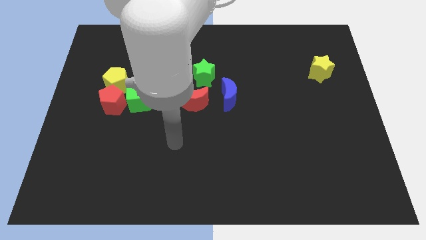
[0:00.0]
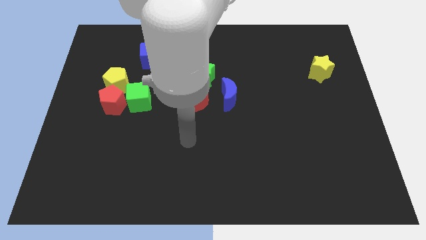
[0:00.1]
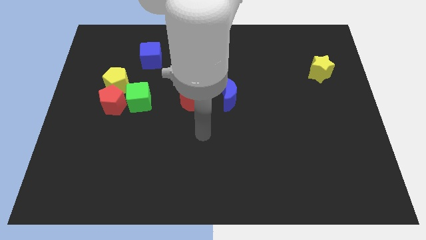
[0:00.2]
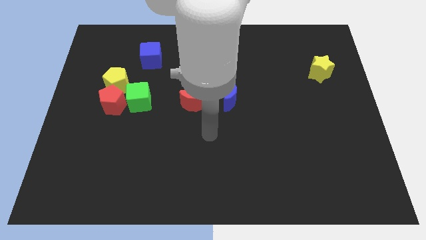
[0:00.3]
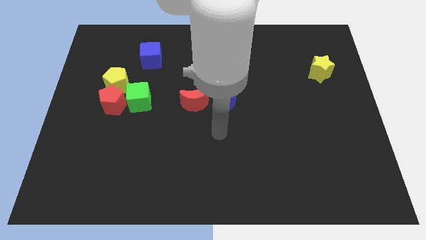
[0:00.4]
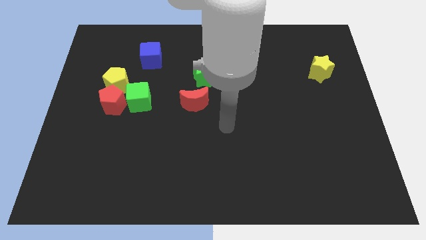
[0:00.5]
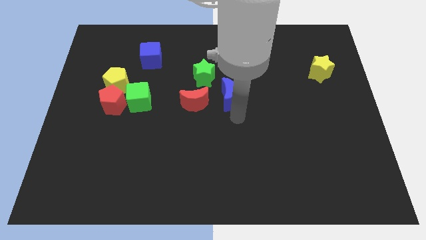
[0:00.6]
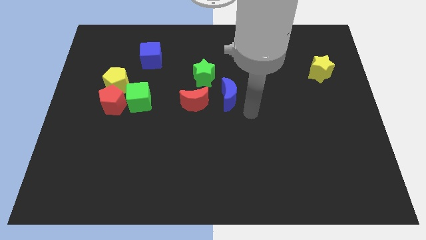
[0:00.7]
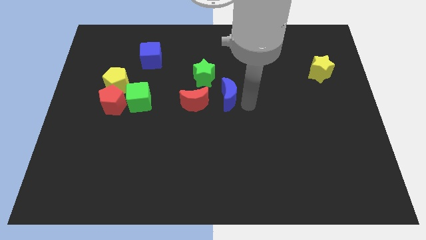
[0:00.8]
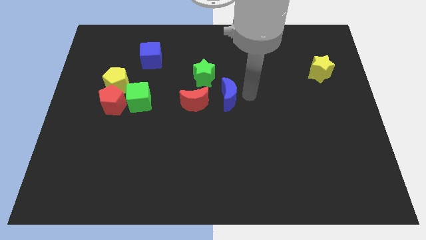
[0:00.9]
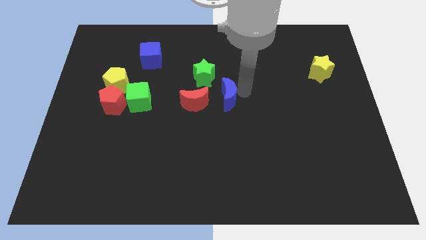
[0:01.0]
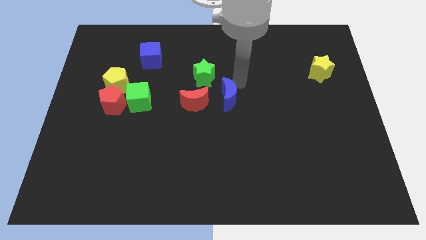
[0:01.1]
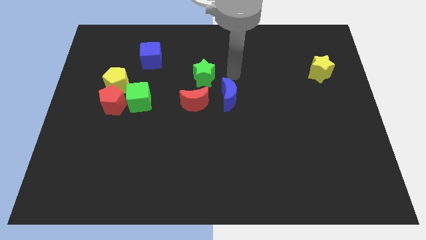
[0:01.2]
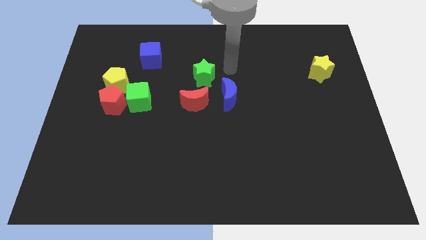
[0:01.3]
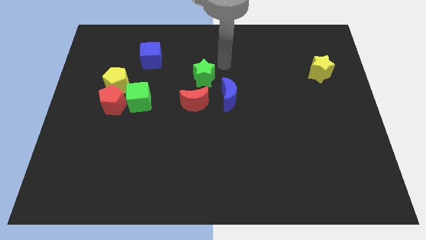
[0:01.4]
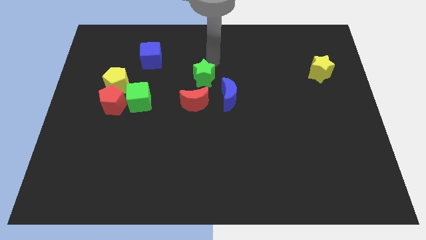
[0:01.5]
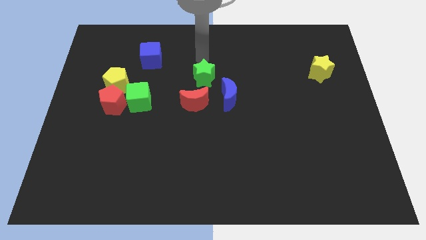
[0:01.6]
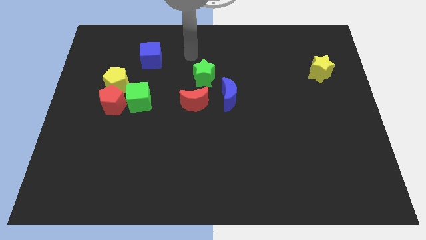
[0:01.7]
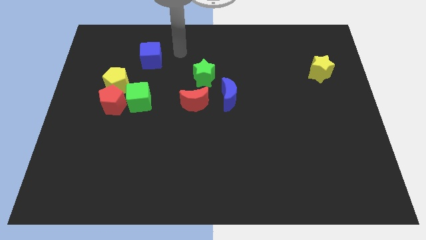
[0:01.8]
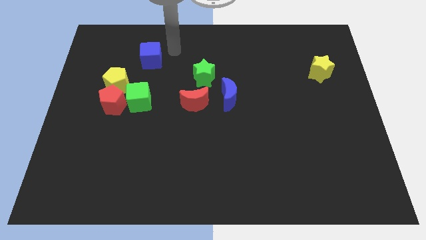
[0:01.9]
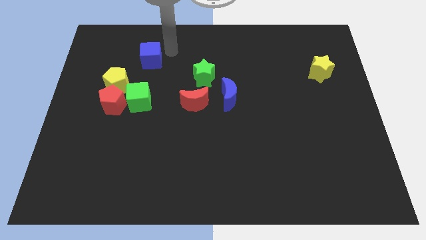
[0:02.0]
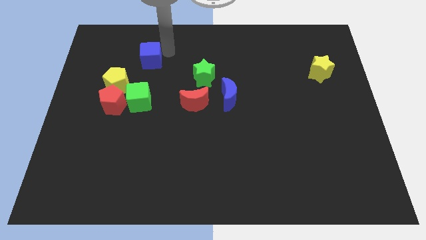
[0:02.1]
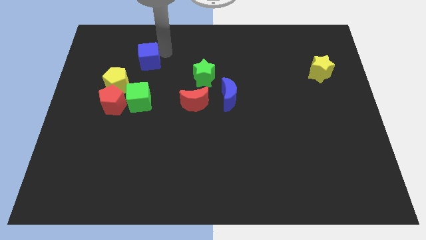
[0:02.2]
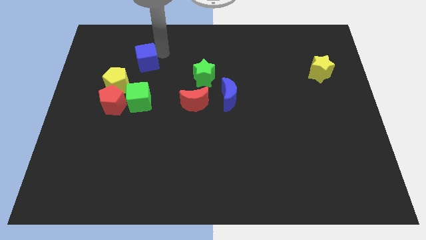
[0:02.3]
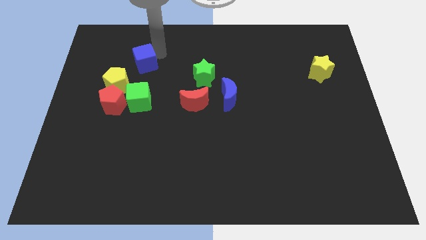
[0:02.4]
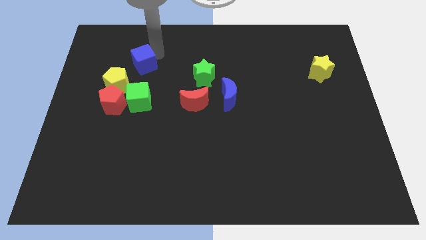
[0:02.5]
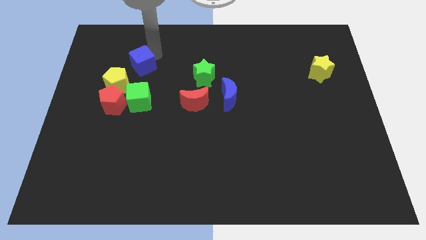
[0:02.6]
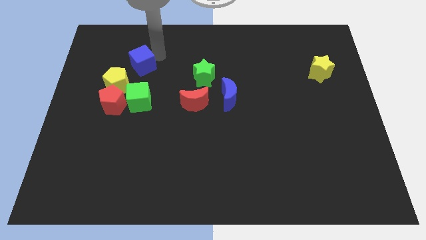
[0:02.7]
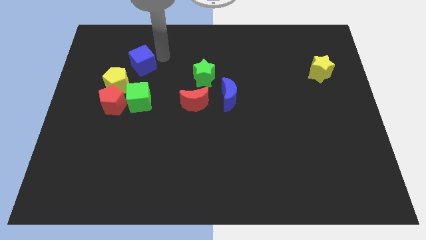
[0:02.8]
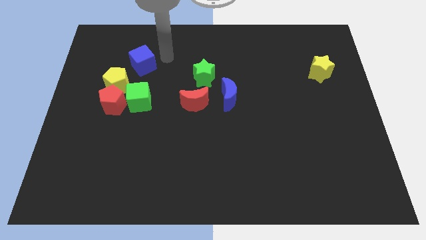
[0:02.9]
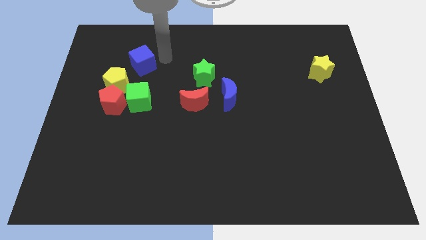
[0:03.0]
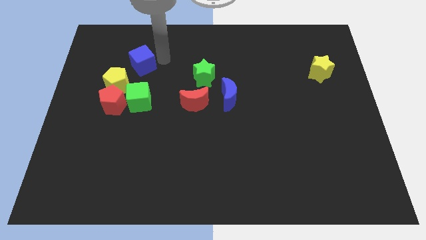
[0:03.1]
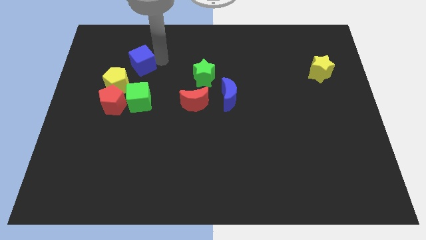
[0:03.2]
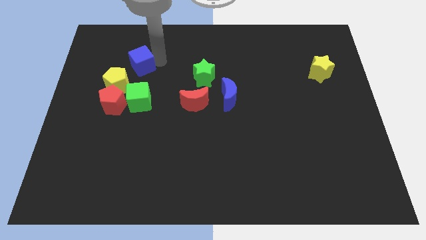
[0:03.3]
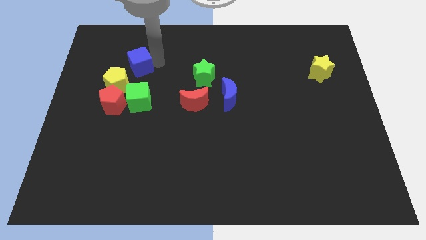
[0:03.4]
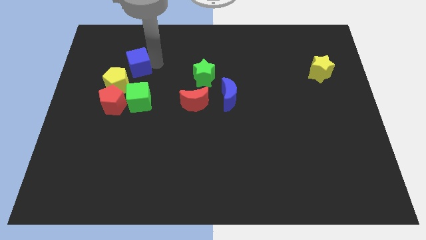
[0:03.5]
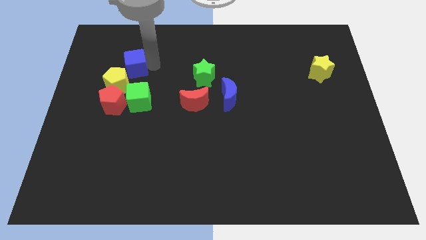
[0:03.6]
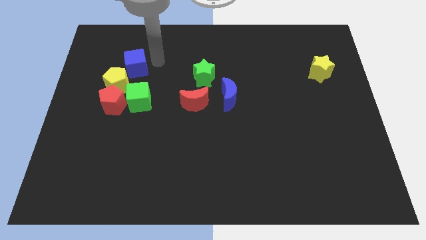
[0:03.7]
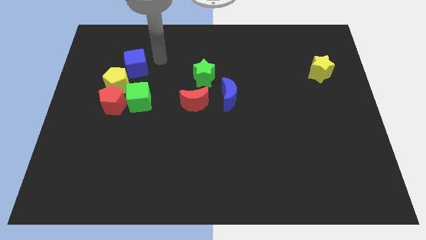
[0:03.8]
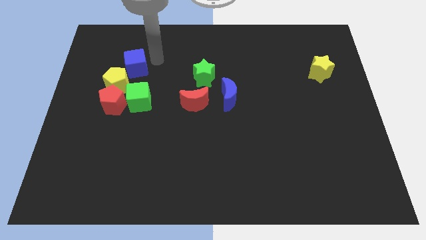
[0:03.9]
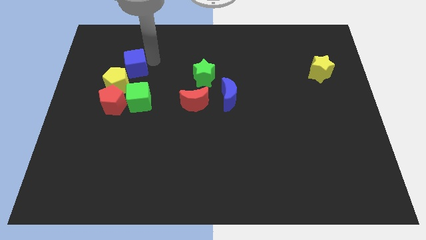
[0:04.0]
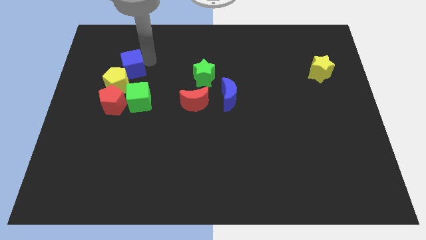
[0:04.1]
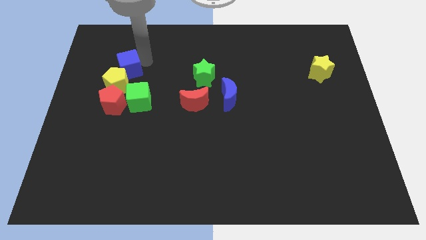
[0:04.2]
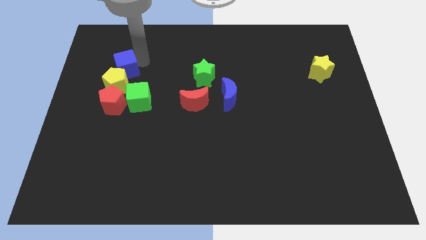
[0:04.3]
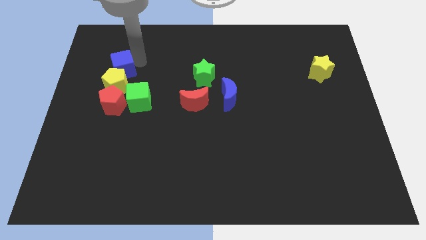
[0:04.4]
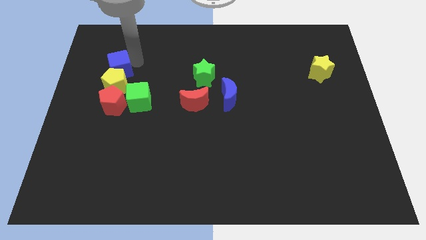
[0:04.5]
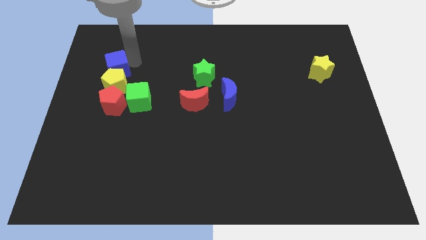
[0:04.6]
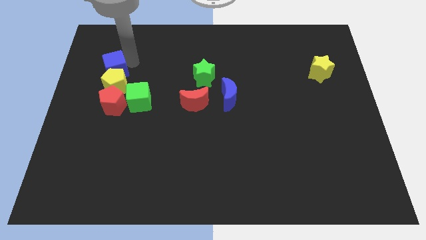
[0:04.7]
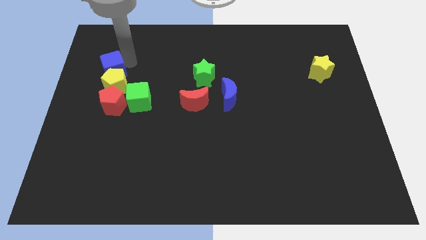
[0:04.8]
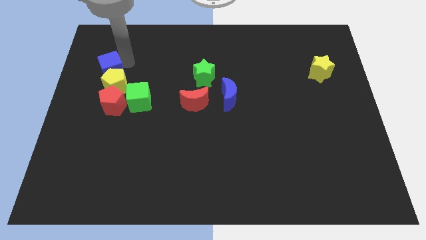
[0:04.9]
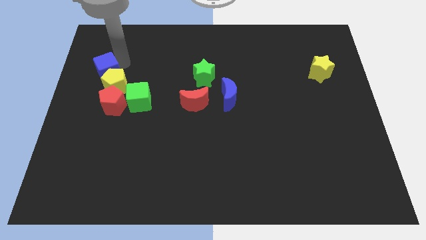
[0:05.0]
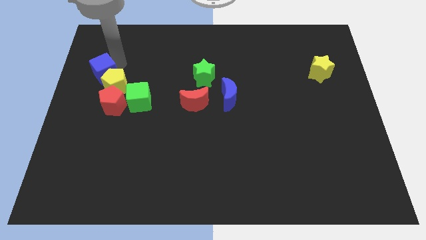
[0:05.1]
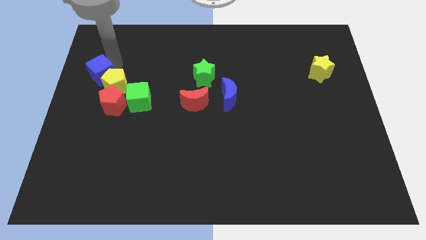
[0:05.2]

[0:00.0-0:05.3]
put the blue cube to the left side

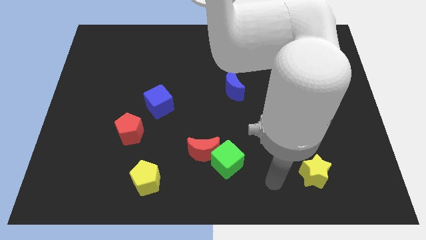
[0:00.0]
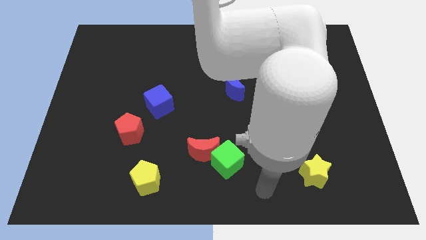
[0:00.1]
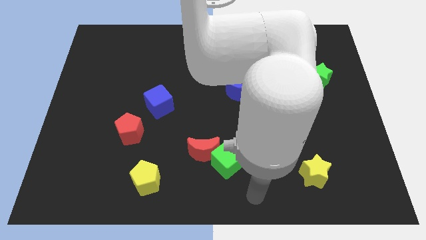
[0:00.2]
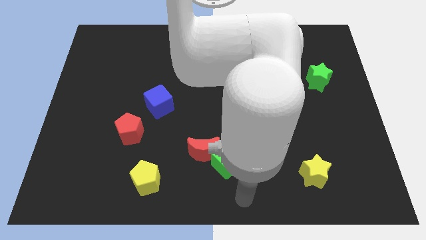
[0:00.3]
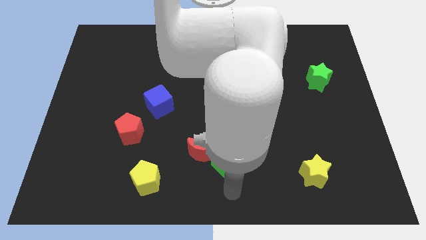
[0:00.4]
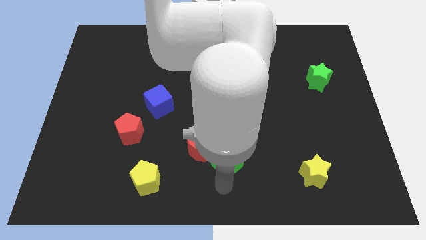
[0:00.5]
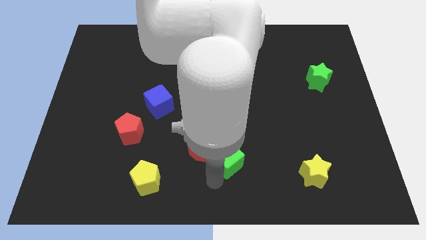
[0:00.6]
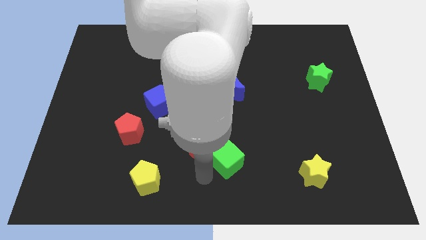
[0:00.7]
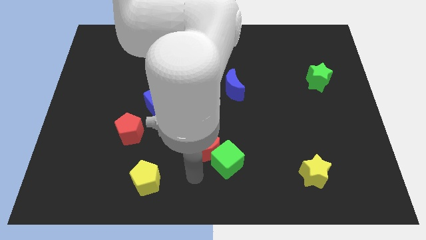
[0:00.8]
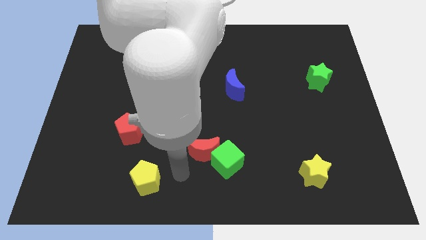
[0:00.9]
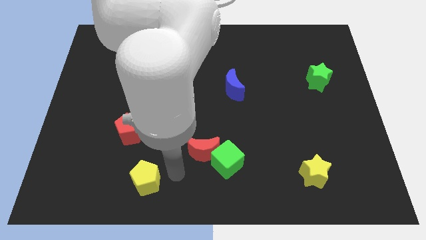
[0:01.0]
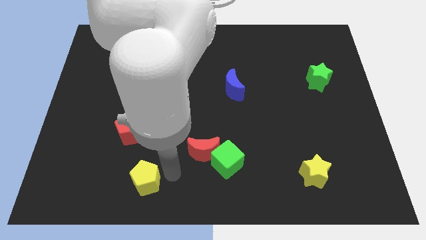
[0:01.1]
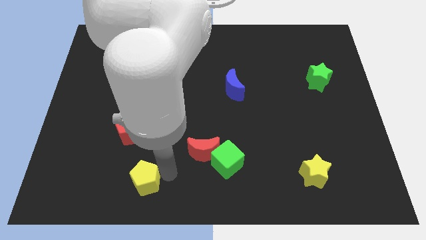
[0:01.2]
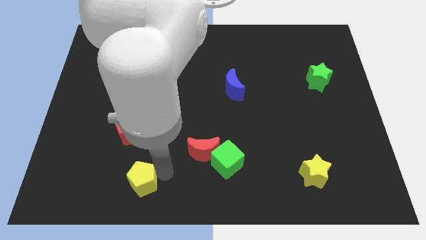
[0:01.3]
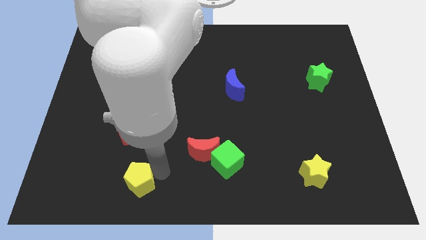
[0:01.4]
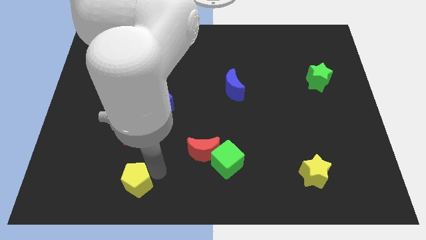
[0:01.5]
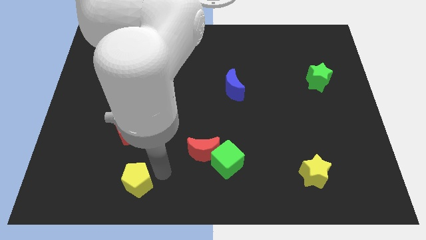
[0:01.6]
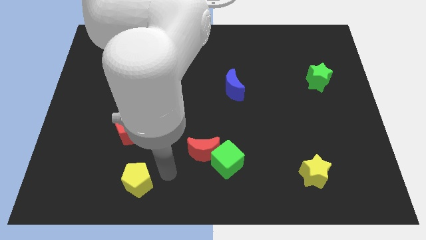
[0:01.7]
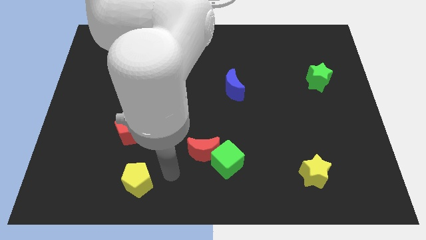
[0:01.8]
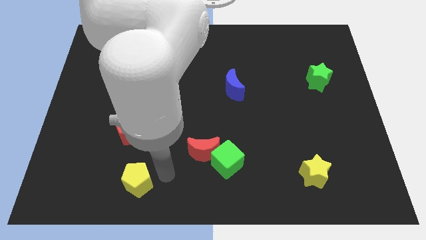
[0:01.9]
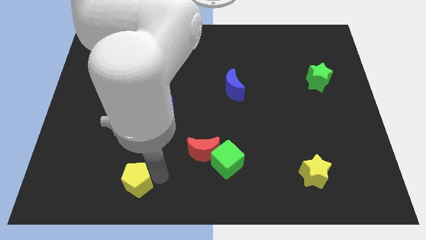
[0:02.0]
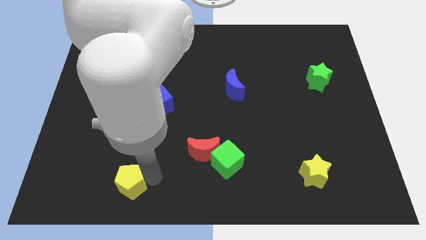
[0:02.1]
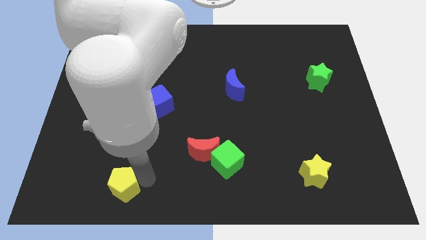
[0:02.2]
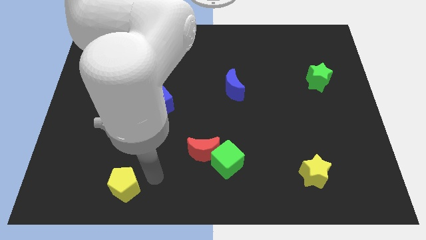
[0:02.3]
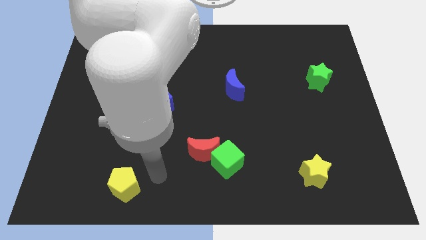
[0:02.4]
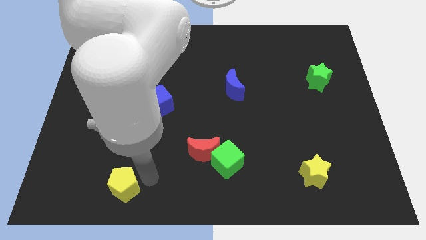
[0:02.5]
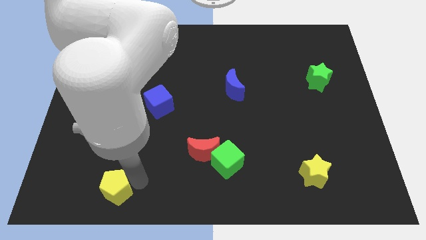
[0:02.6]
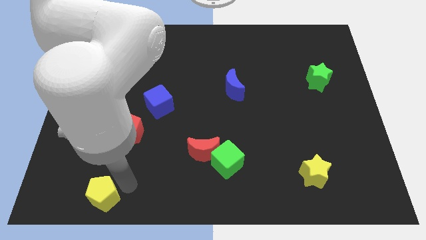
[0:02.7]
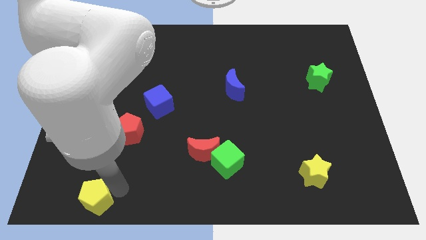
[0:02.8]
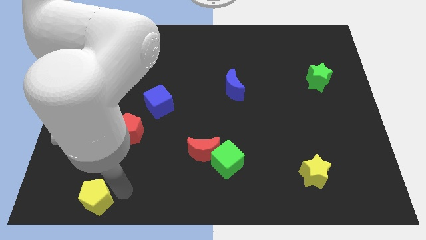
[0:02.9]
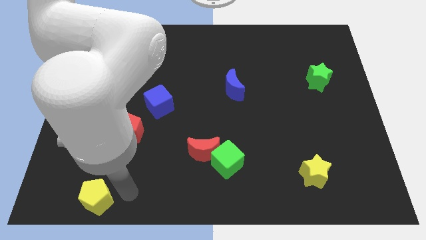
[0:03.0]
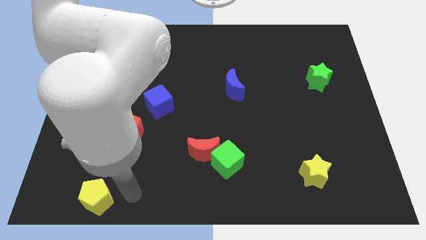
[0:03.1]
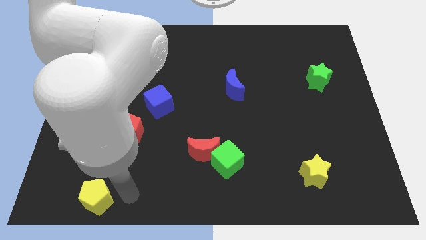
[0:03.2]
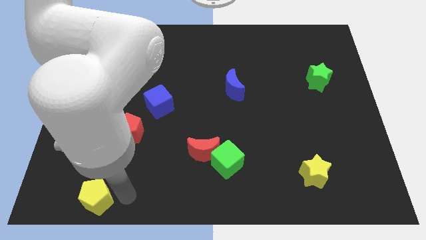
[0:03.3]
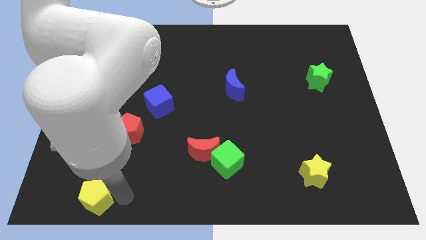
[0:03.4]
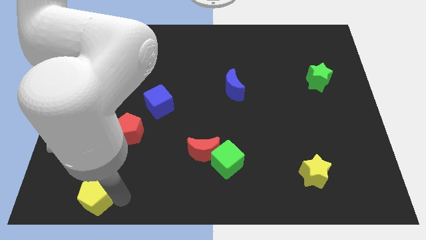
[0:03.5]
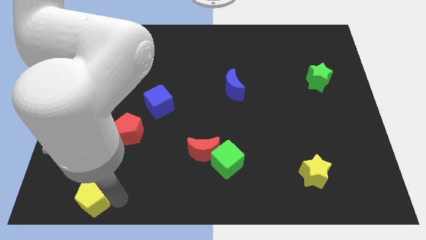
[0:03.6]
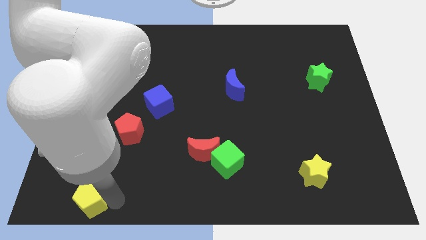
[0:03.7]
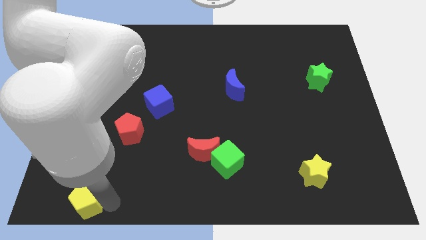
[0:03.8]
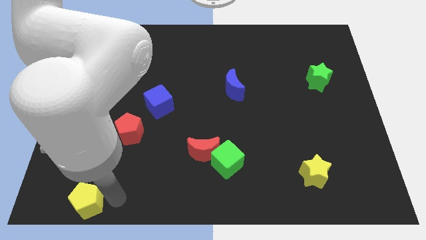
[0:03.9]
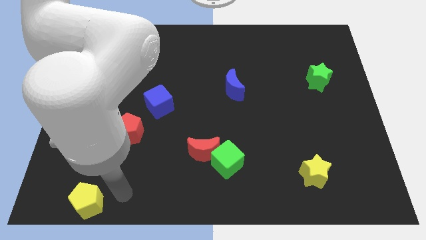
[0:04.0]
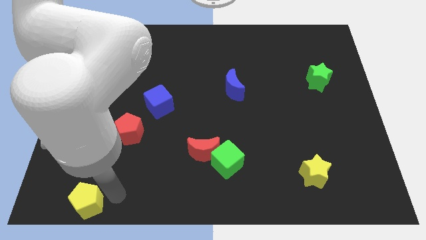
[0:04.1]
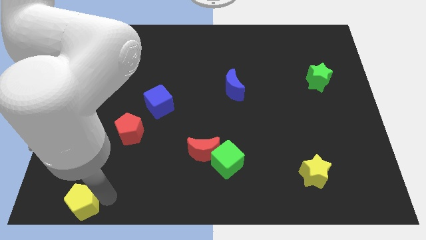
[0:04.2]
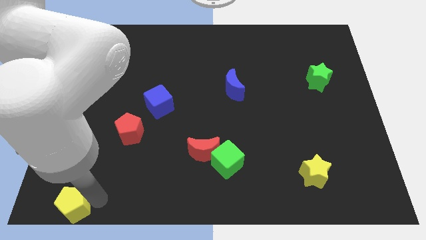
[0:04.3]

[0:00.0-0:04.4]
put the yellow pentagon to the bottom left of the board
